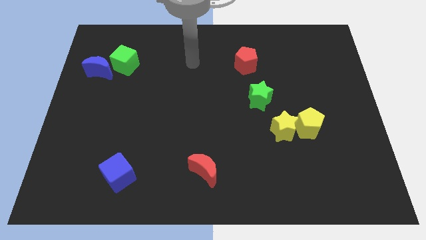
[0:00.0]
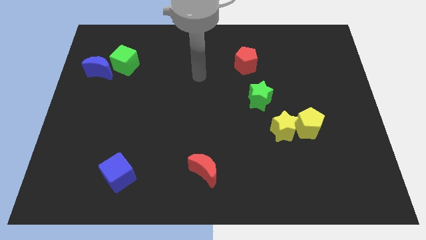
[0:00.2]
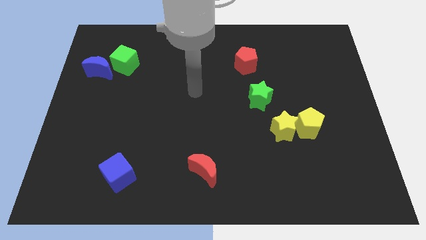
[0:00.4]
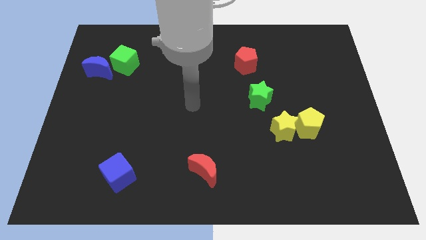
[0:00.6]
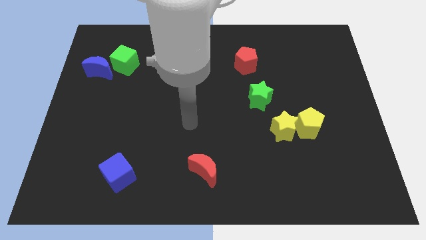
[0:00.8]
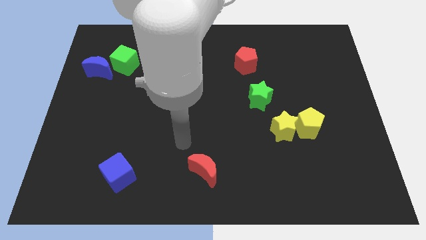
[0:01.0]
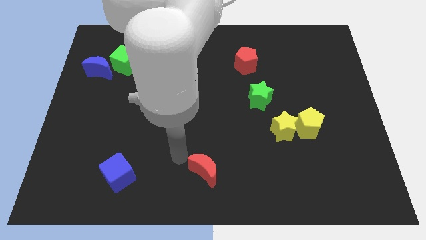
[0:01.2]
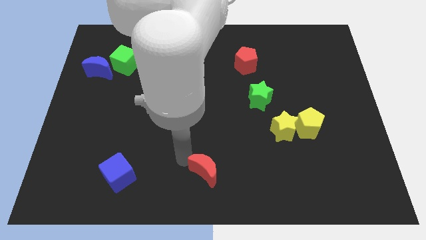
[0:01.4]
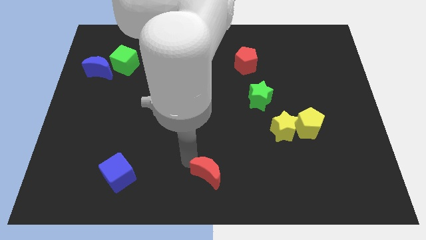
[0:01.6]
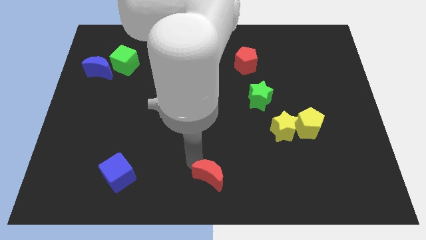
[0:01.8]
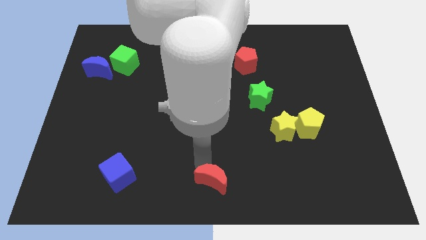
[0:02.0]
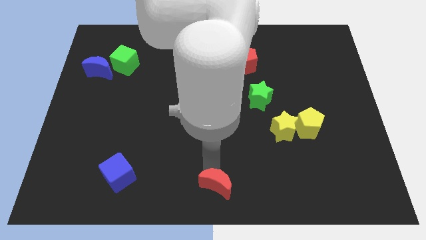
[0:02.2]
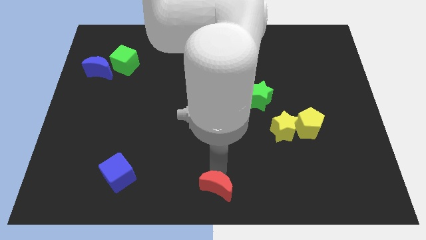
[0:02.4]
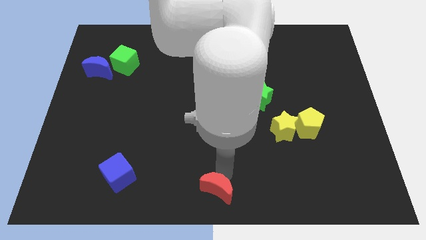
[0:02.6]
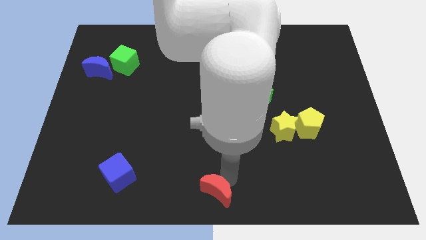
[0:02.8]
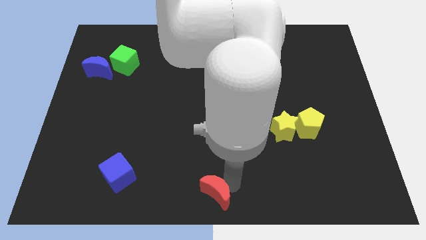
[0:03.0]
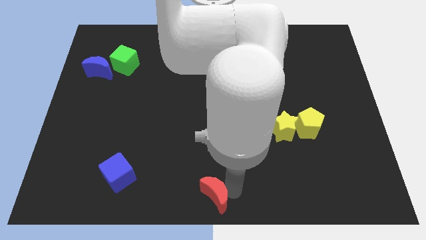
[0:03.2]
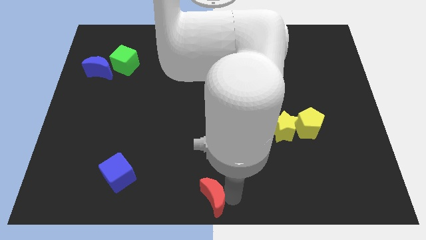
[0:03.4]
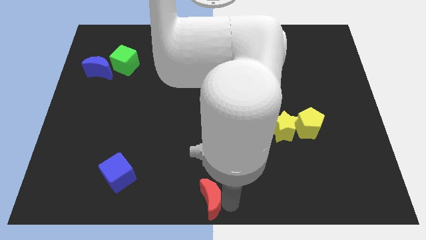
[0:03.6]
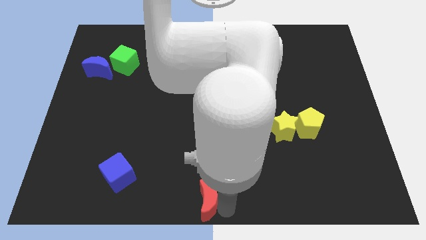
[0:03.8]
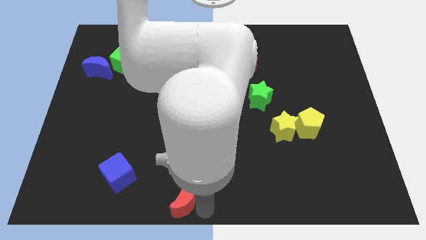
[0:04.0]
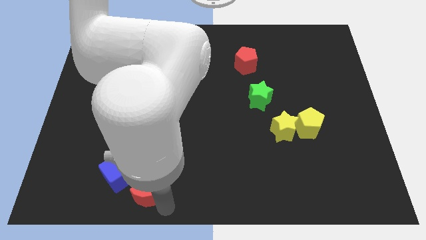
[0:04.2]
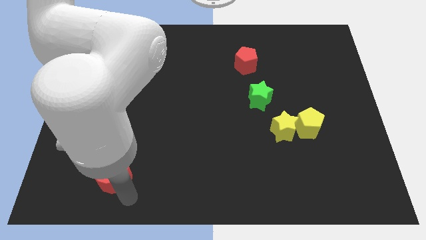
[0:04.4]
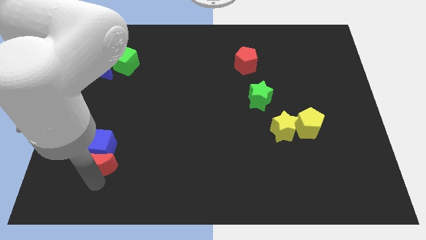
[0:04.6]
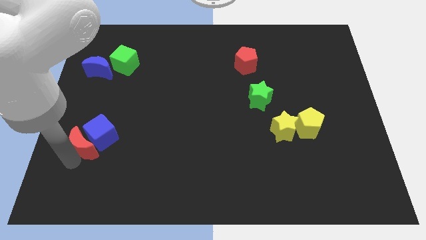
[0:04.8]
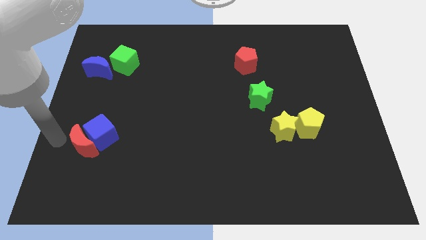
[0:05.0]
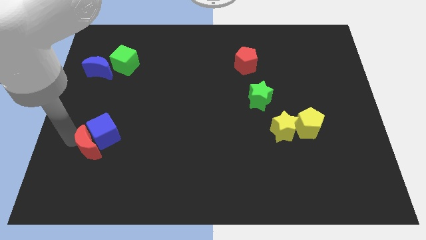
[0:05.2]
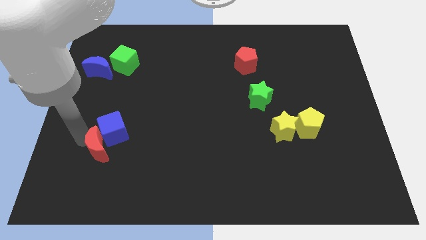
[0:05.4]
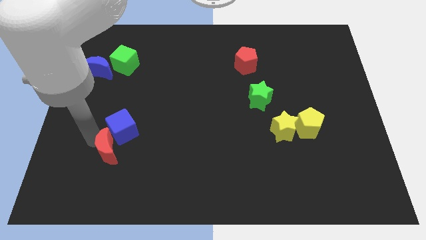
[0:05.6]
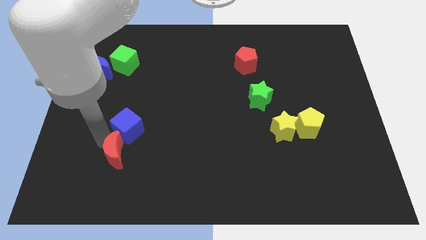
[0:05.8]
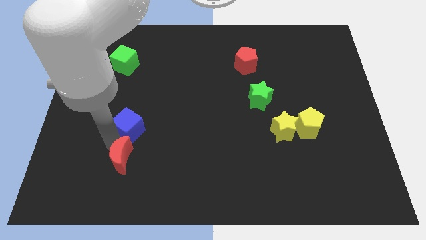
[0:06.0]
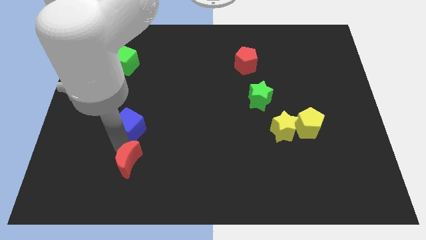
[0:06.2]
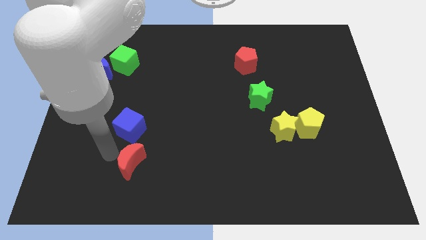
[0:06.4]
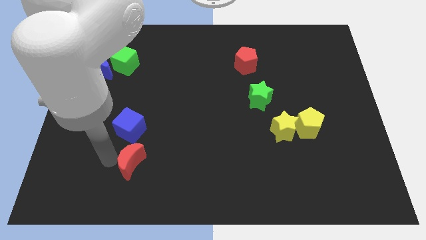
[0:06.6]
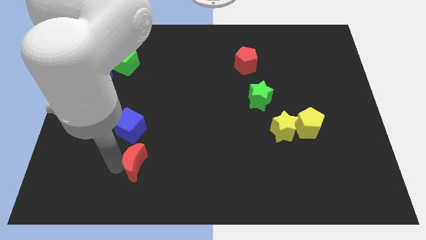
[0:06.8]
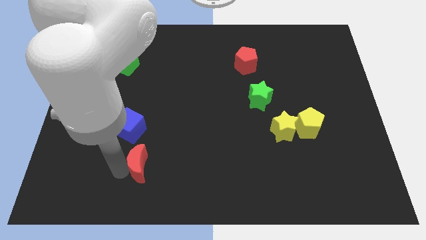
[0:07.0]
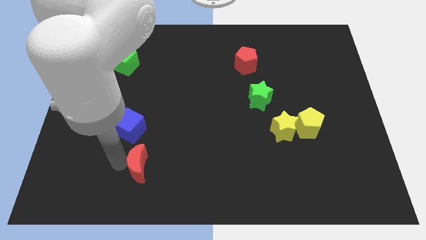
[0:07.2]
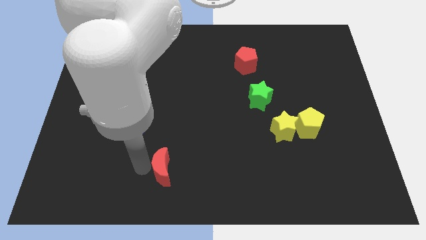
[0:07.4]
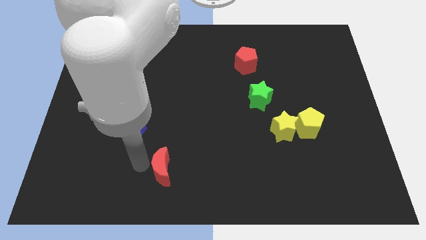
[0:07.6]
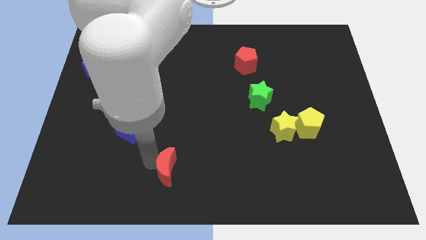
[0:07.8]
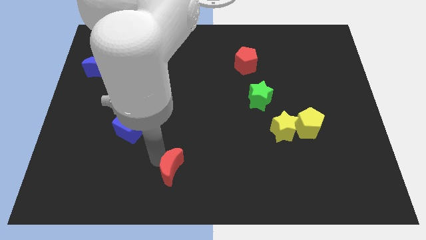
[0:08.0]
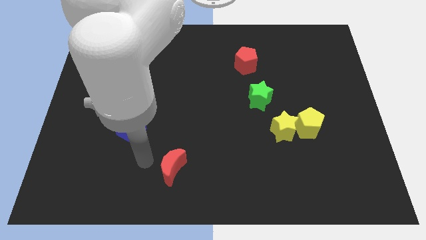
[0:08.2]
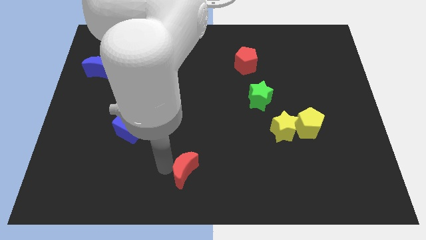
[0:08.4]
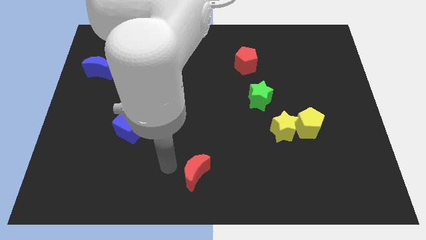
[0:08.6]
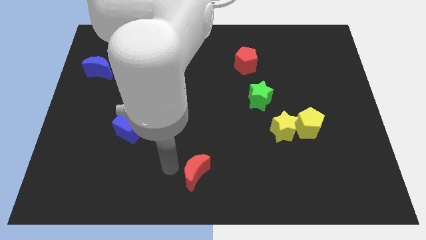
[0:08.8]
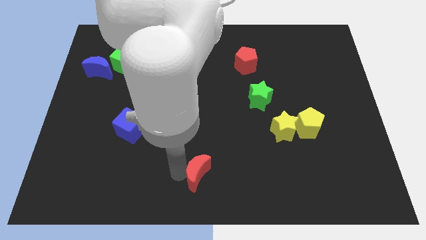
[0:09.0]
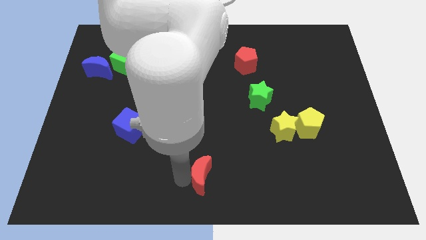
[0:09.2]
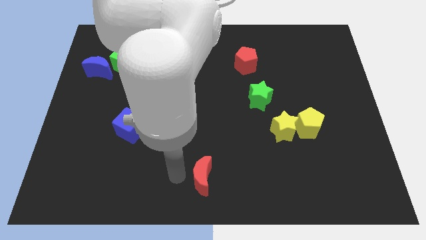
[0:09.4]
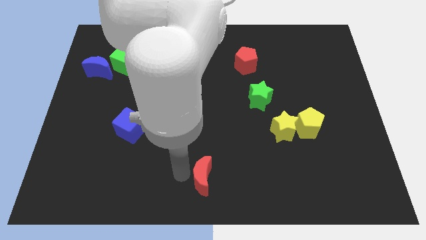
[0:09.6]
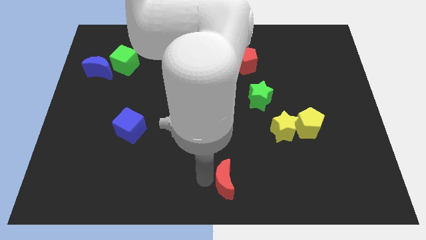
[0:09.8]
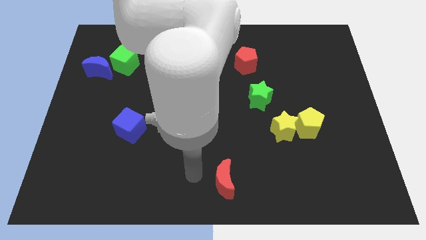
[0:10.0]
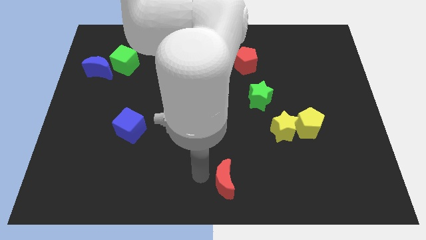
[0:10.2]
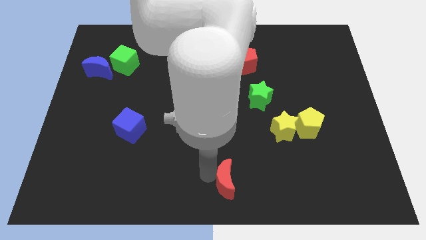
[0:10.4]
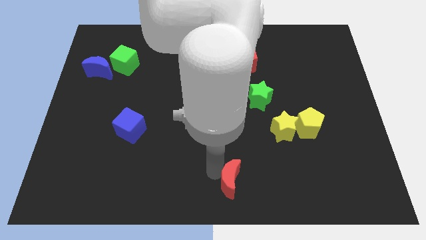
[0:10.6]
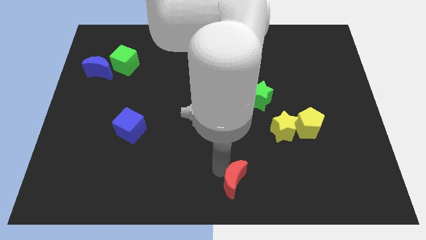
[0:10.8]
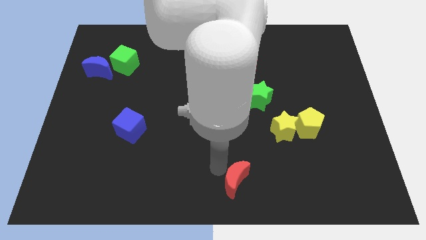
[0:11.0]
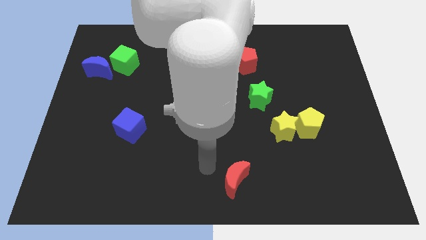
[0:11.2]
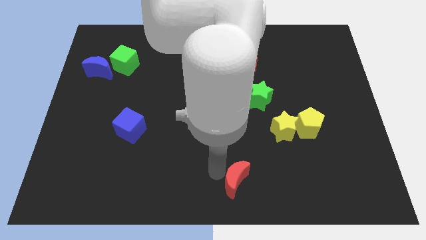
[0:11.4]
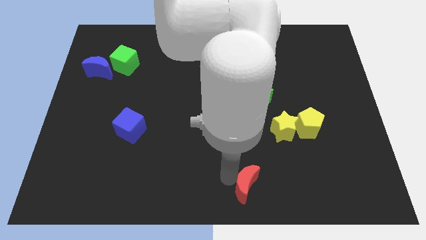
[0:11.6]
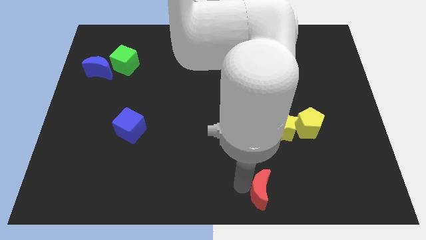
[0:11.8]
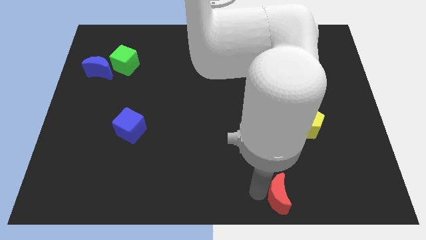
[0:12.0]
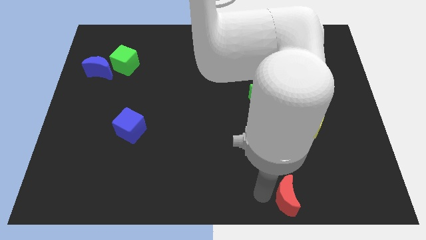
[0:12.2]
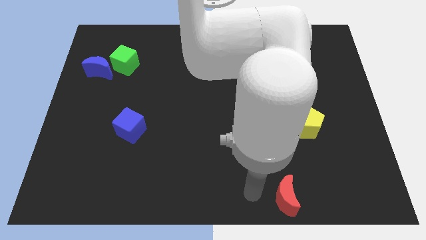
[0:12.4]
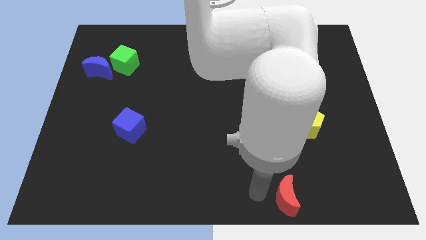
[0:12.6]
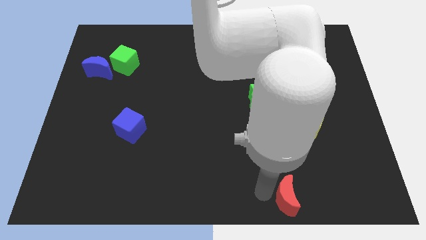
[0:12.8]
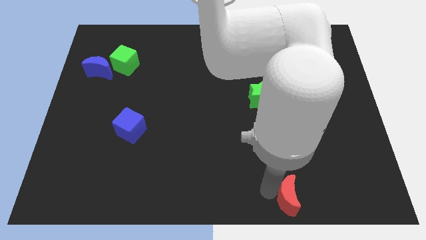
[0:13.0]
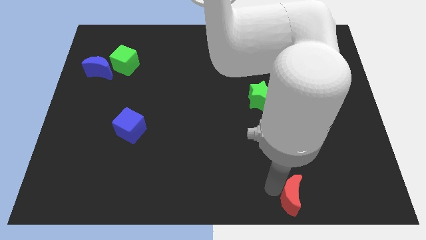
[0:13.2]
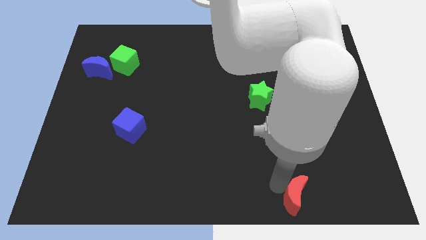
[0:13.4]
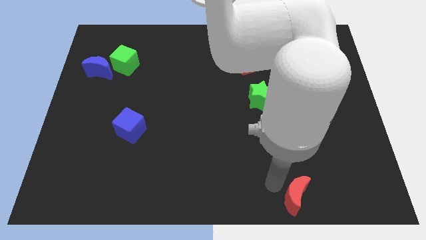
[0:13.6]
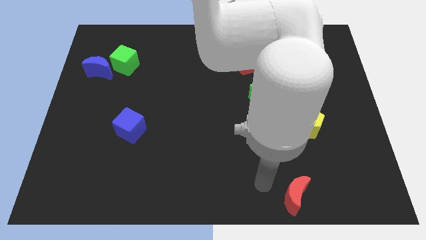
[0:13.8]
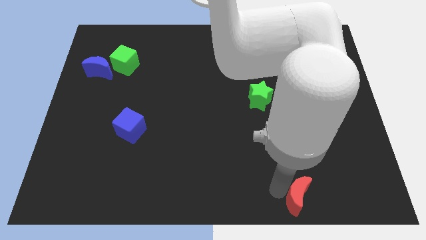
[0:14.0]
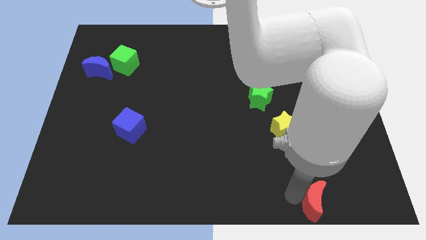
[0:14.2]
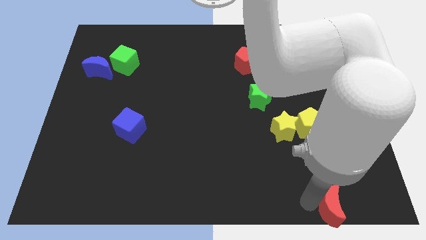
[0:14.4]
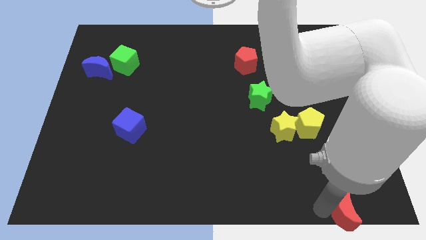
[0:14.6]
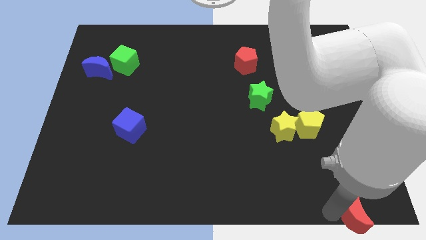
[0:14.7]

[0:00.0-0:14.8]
push the red moon to the bottom right
